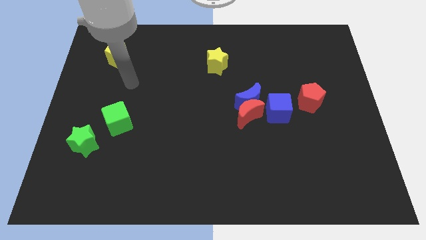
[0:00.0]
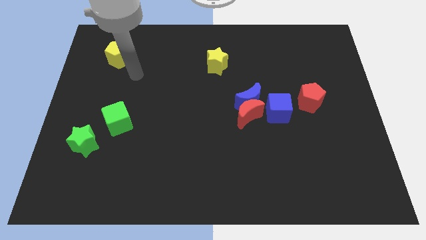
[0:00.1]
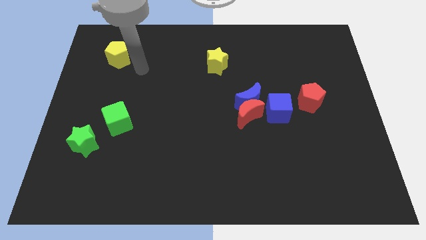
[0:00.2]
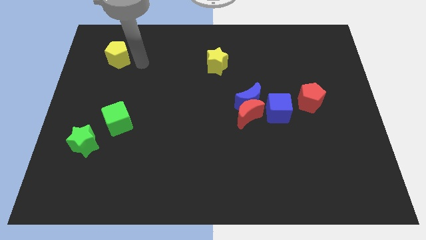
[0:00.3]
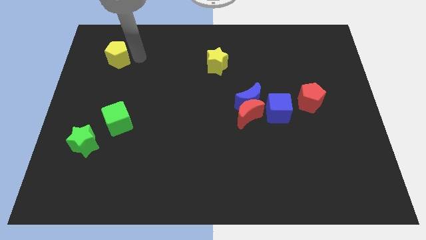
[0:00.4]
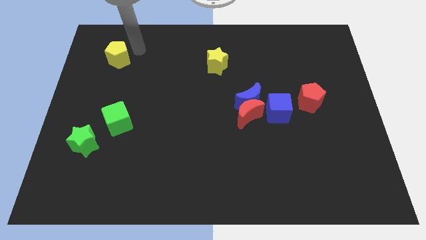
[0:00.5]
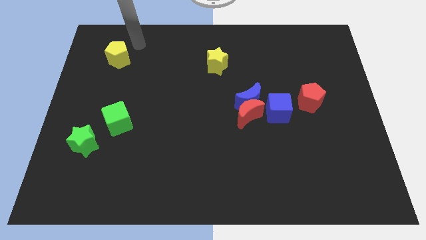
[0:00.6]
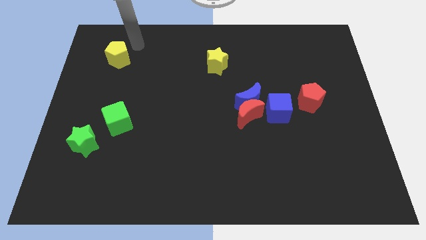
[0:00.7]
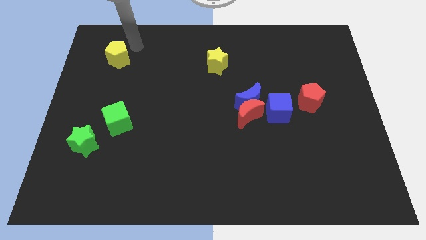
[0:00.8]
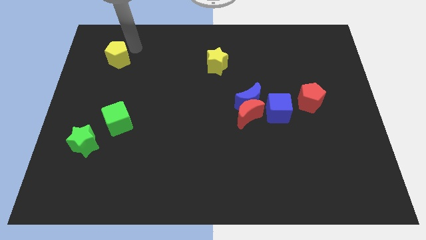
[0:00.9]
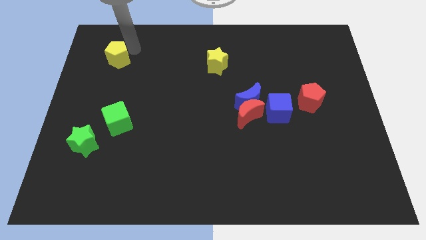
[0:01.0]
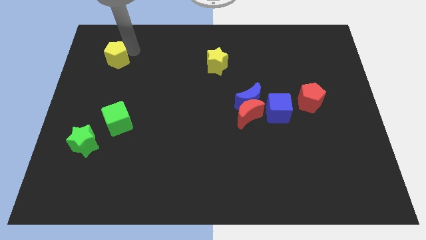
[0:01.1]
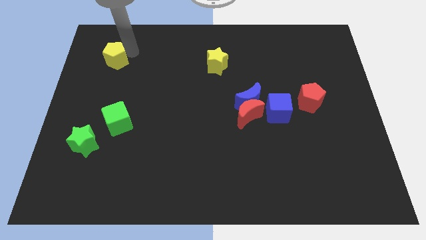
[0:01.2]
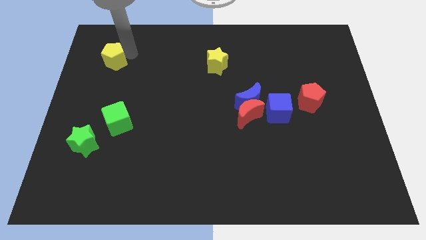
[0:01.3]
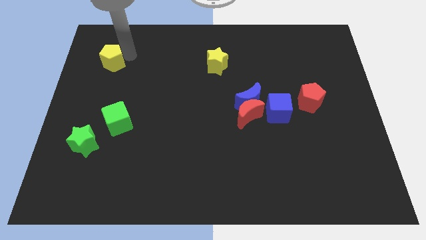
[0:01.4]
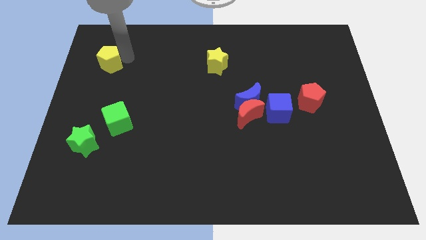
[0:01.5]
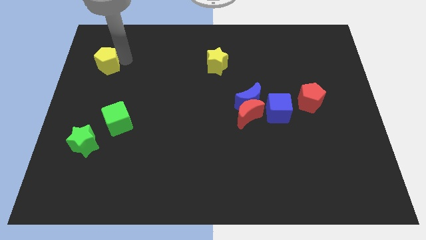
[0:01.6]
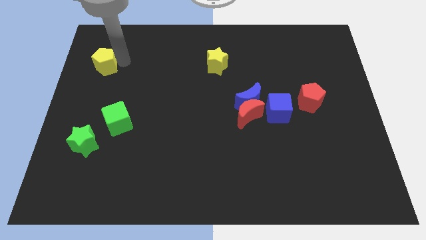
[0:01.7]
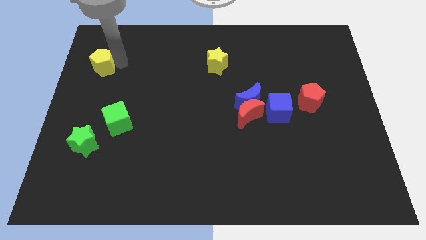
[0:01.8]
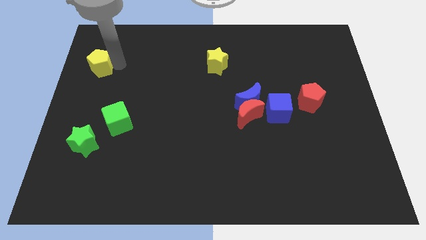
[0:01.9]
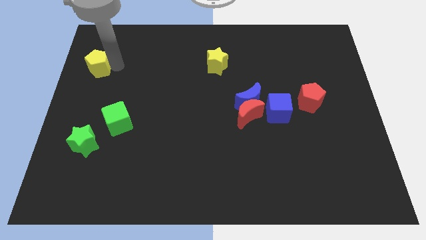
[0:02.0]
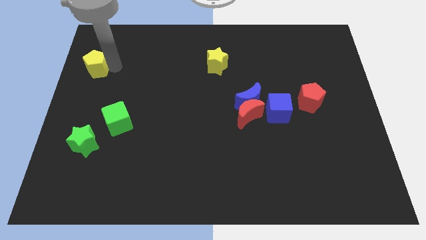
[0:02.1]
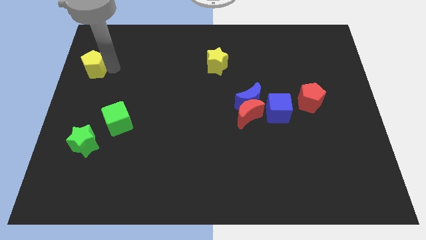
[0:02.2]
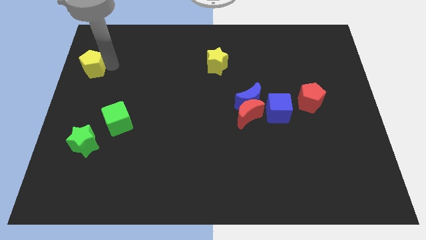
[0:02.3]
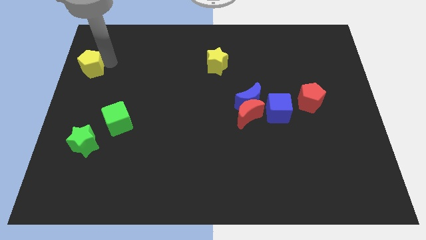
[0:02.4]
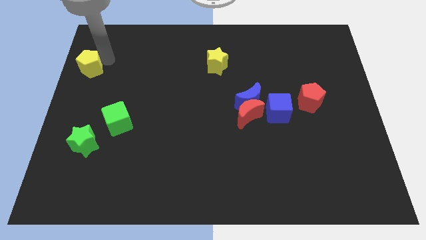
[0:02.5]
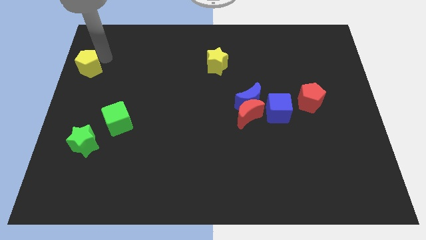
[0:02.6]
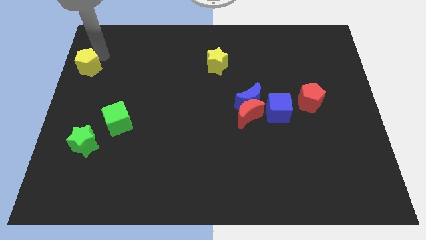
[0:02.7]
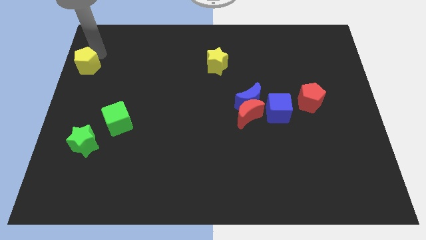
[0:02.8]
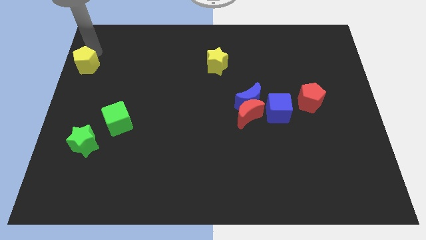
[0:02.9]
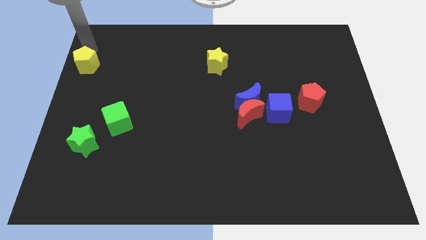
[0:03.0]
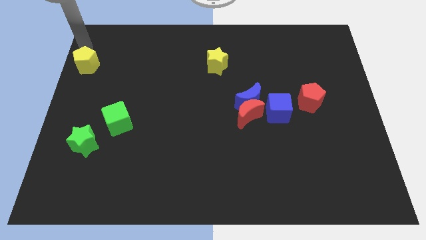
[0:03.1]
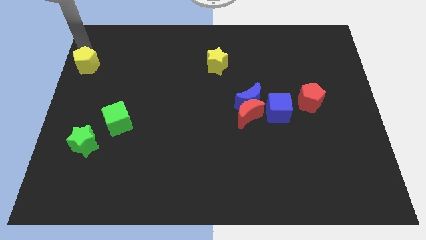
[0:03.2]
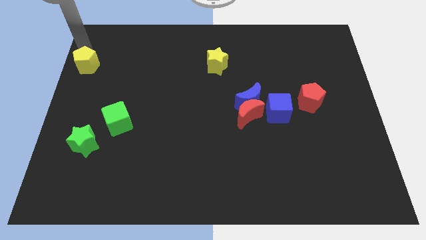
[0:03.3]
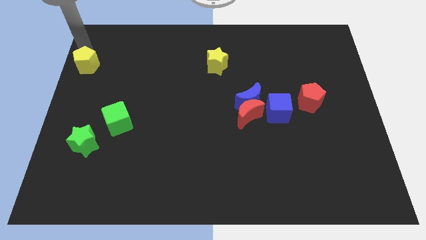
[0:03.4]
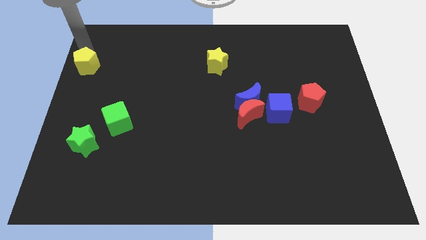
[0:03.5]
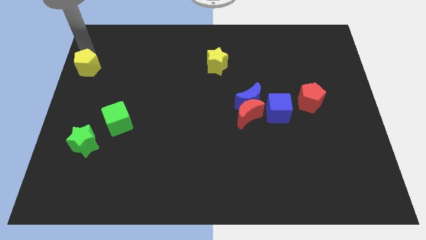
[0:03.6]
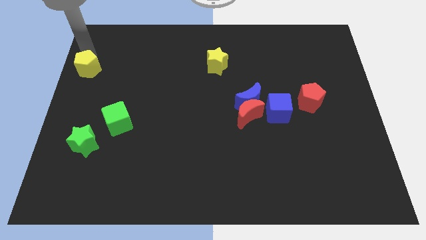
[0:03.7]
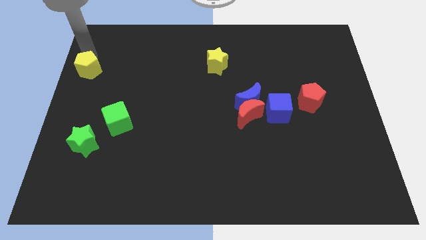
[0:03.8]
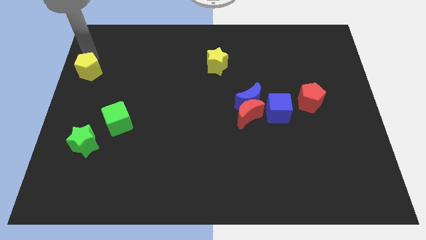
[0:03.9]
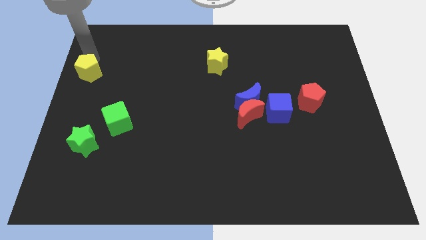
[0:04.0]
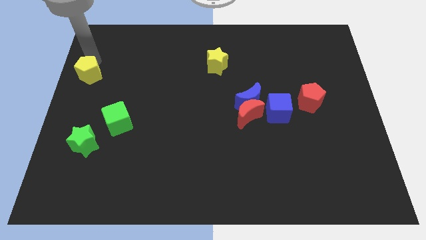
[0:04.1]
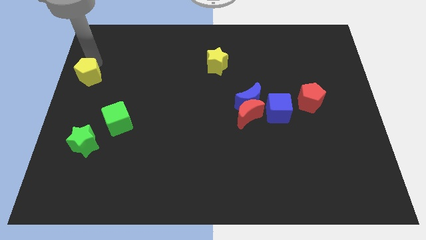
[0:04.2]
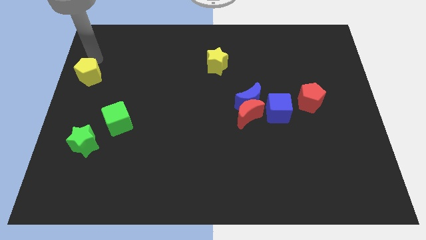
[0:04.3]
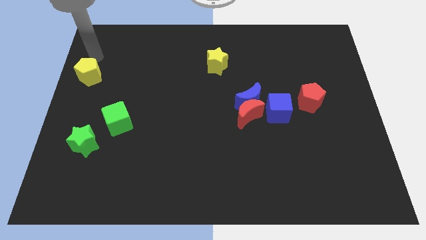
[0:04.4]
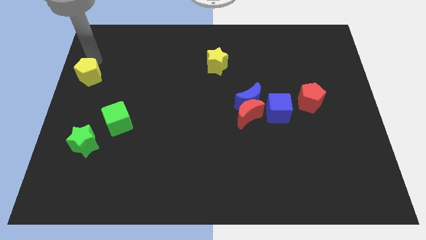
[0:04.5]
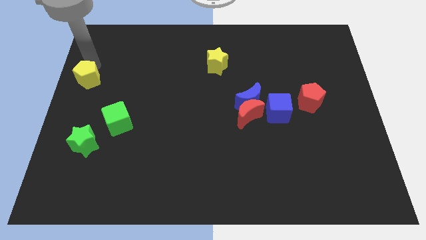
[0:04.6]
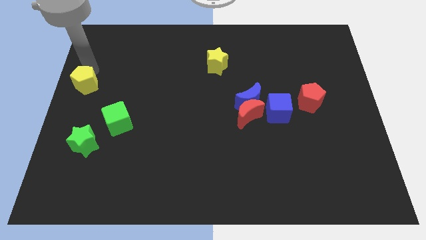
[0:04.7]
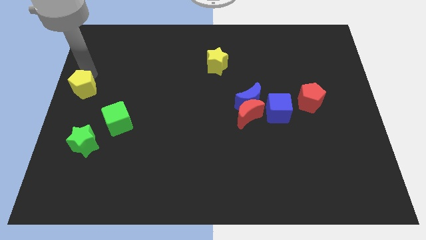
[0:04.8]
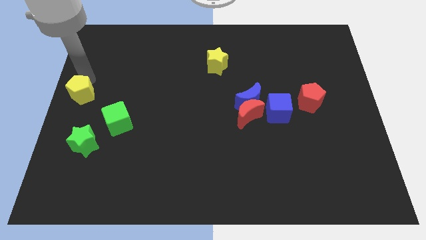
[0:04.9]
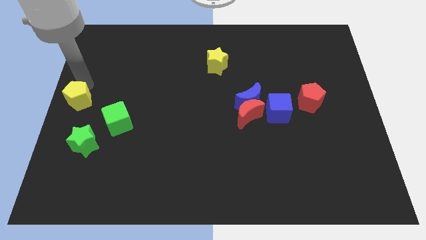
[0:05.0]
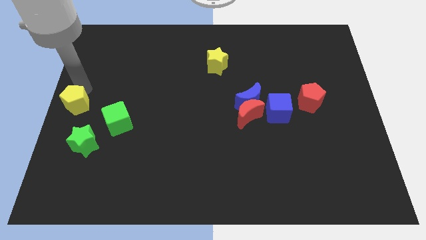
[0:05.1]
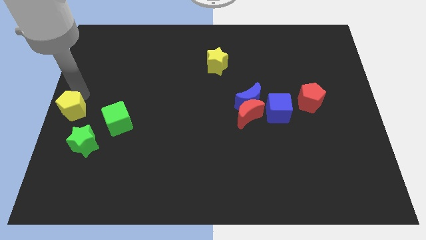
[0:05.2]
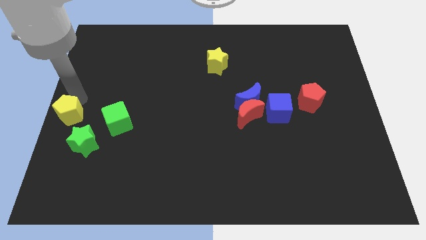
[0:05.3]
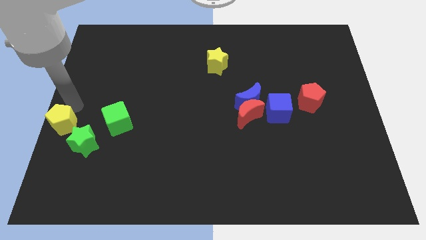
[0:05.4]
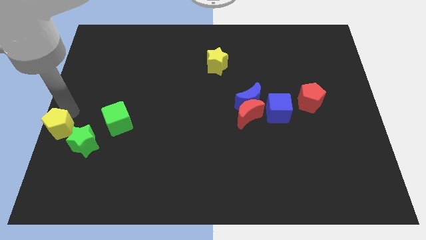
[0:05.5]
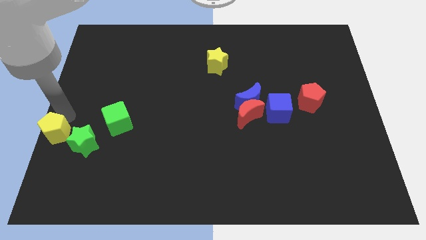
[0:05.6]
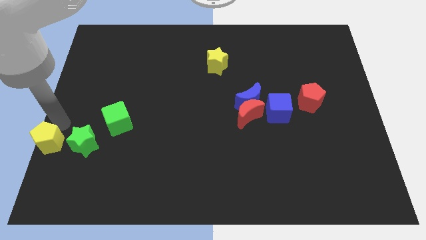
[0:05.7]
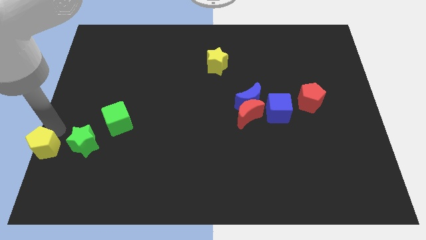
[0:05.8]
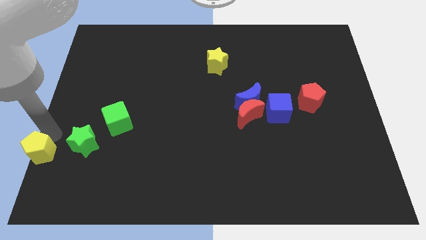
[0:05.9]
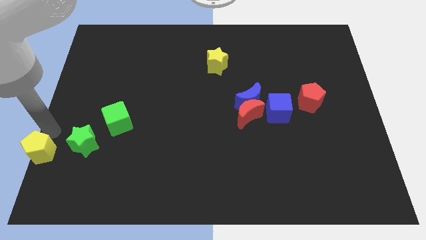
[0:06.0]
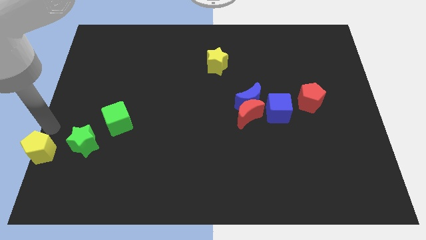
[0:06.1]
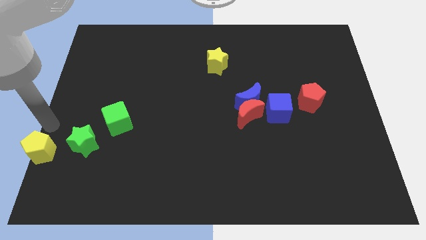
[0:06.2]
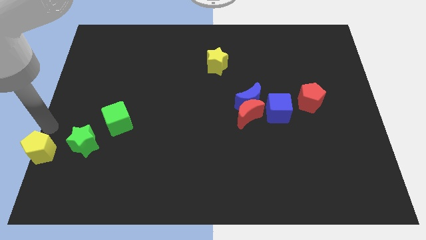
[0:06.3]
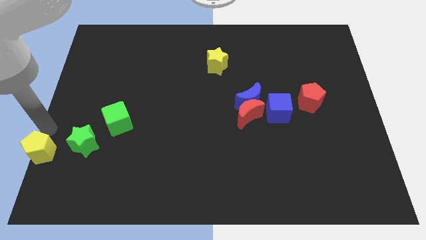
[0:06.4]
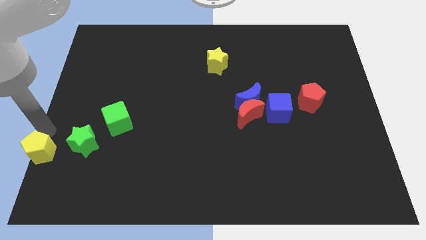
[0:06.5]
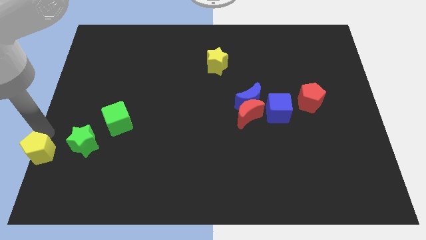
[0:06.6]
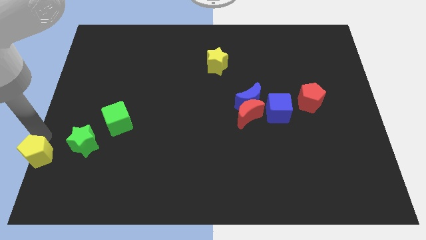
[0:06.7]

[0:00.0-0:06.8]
put the yellow pentagon to the lower left corner

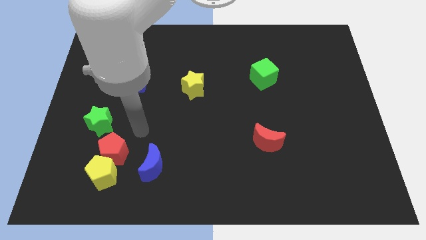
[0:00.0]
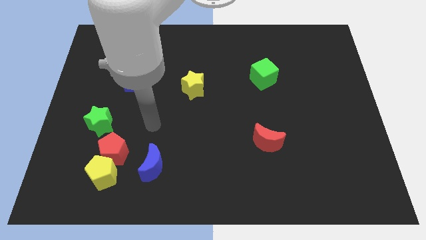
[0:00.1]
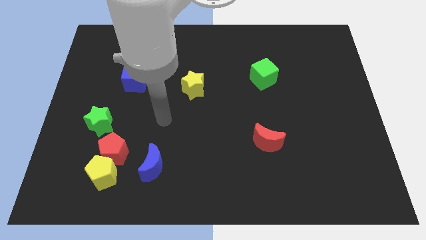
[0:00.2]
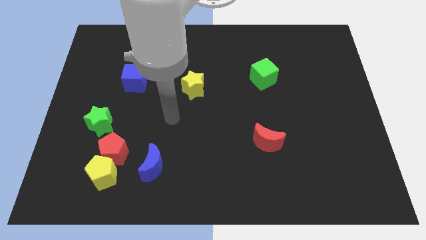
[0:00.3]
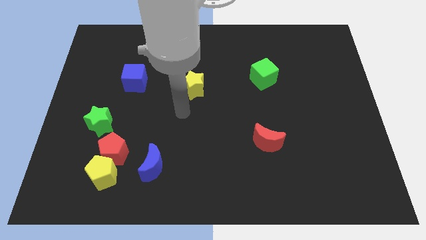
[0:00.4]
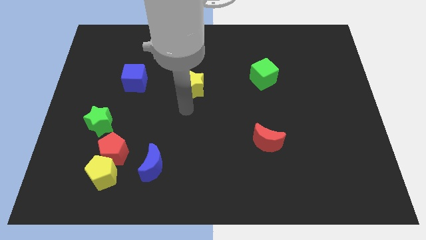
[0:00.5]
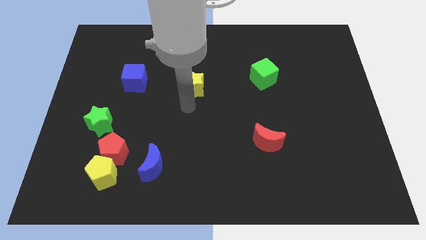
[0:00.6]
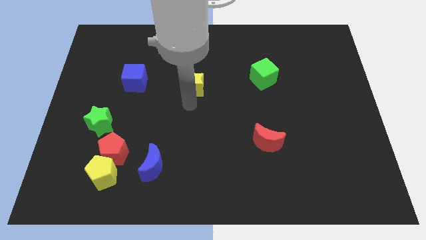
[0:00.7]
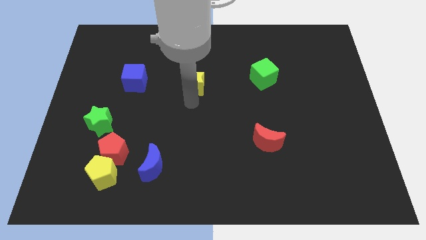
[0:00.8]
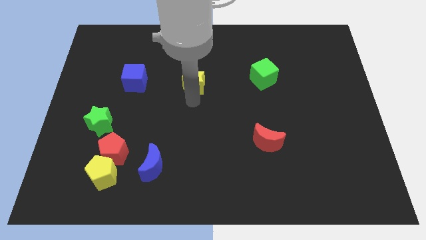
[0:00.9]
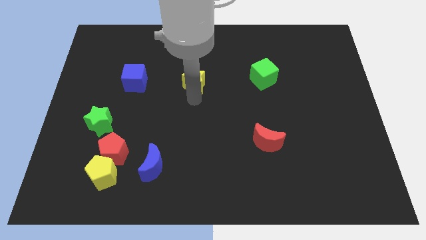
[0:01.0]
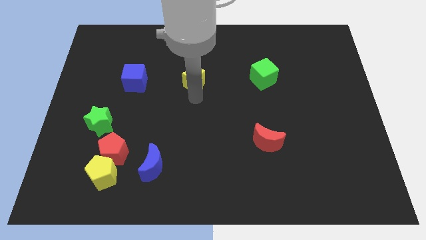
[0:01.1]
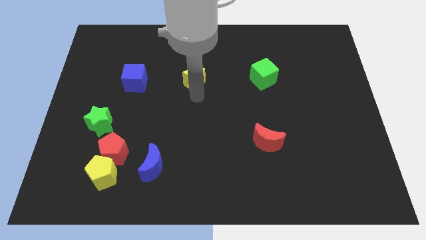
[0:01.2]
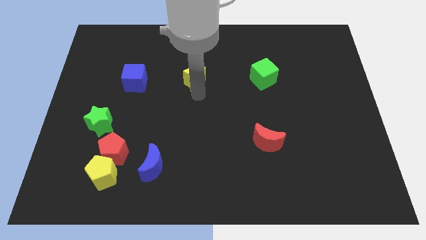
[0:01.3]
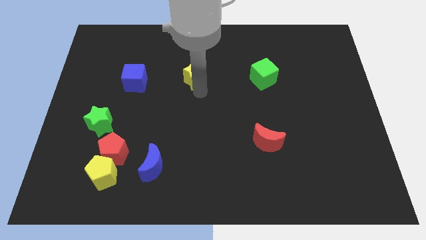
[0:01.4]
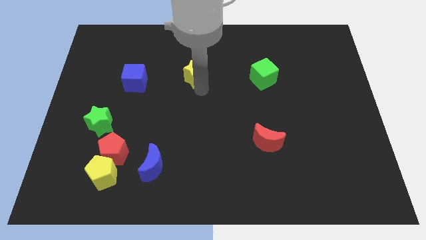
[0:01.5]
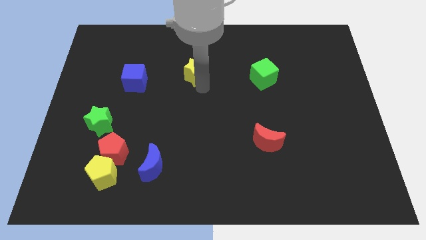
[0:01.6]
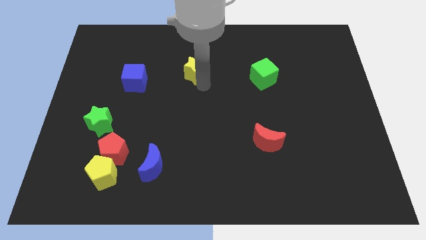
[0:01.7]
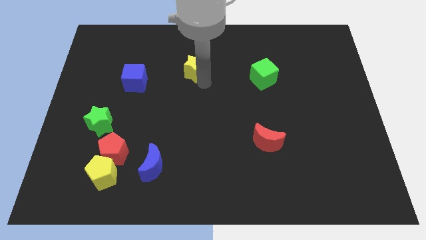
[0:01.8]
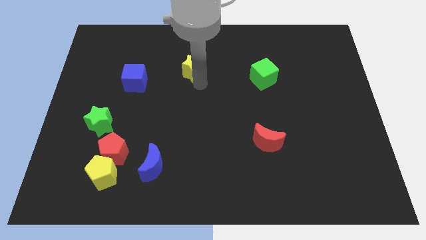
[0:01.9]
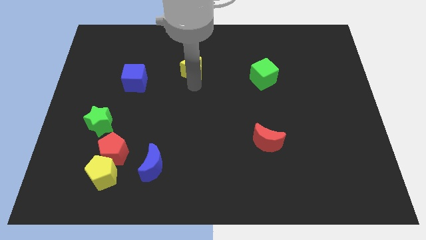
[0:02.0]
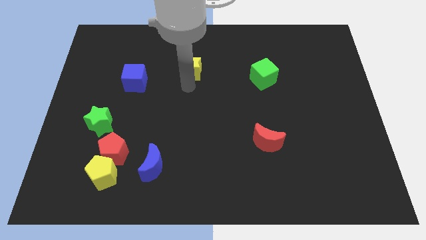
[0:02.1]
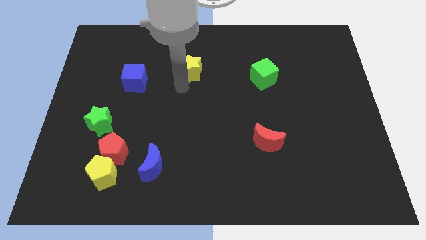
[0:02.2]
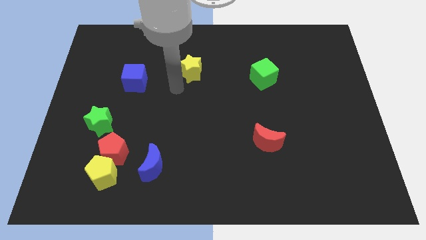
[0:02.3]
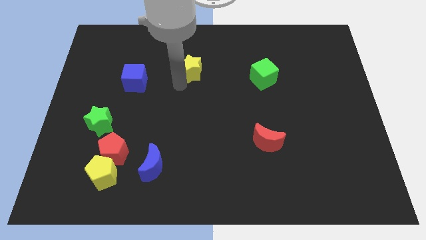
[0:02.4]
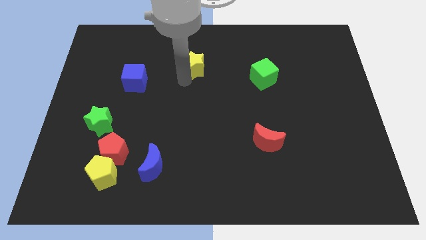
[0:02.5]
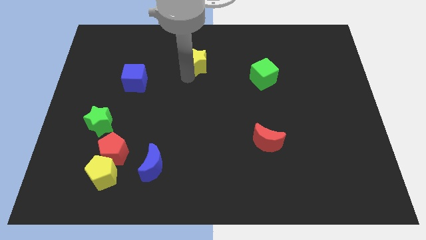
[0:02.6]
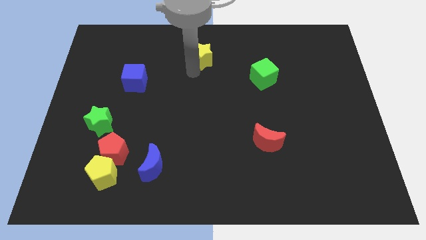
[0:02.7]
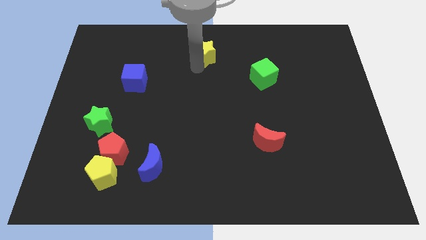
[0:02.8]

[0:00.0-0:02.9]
slide the yellow star to the top side
